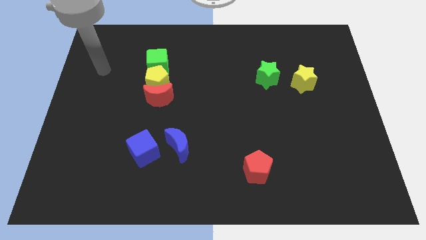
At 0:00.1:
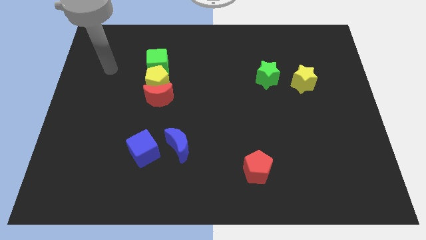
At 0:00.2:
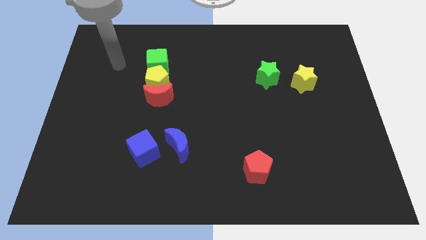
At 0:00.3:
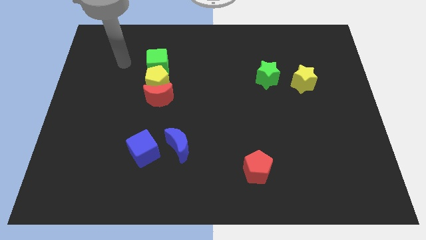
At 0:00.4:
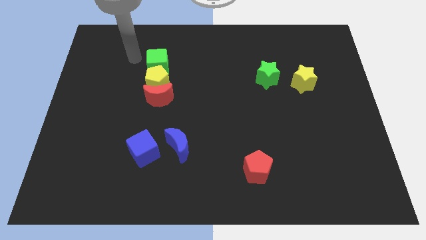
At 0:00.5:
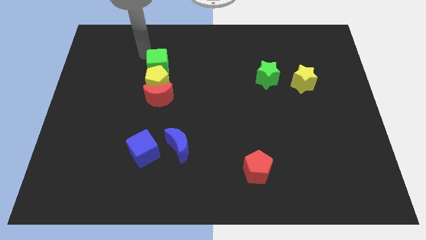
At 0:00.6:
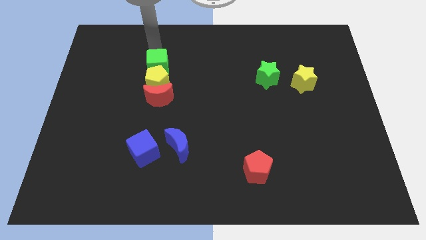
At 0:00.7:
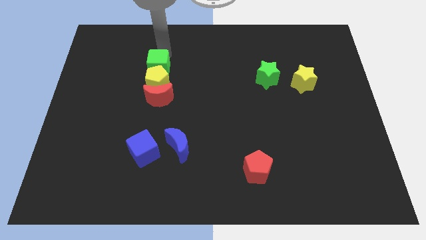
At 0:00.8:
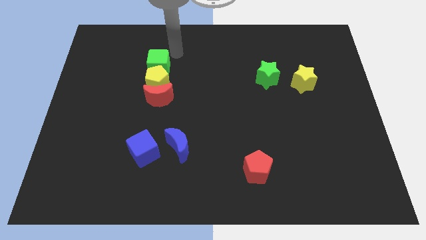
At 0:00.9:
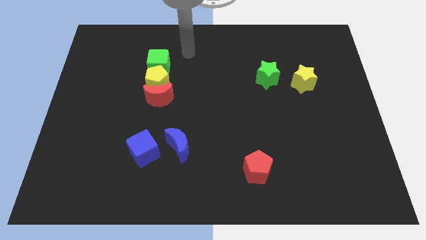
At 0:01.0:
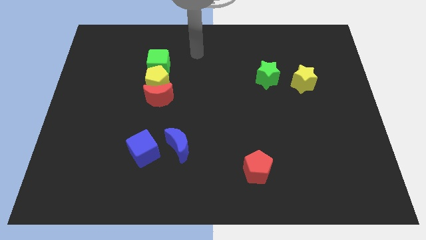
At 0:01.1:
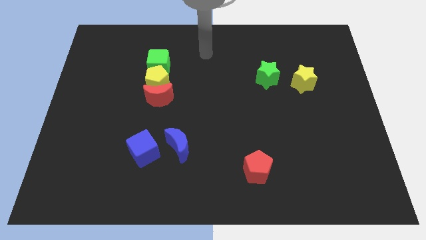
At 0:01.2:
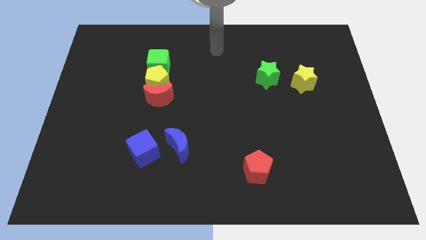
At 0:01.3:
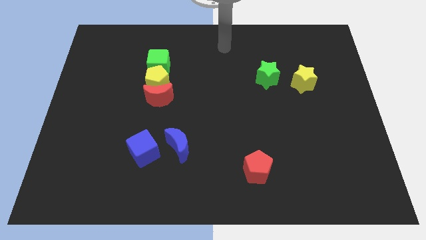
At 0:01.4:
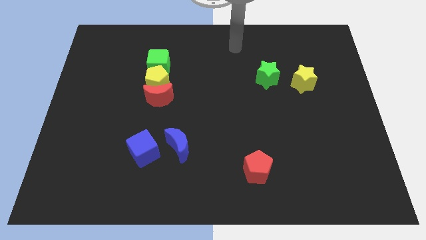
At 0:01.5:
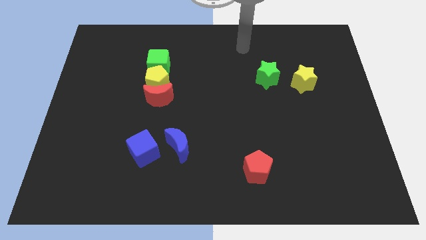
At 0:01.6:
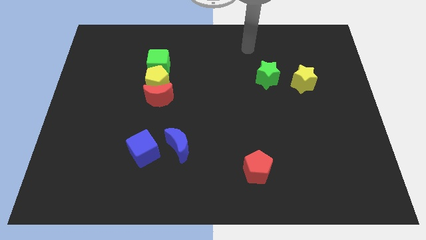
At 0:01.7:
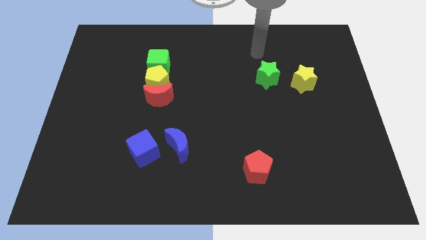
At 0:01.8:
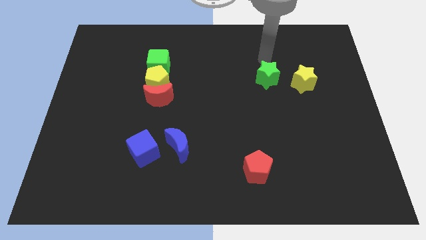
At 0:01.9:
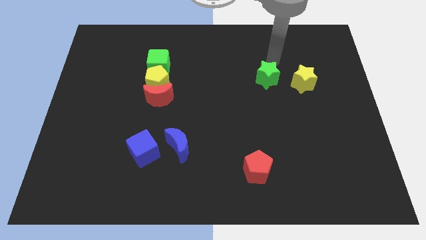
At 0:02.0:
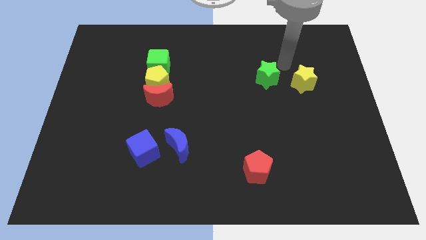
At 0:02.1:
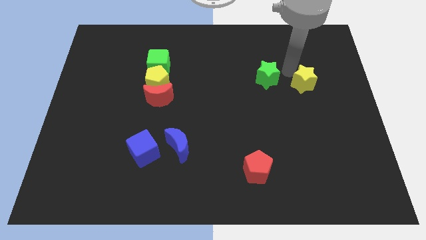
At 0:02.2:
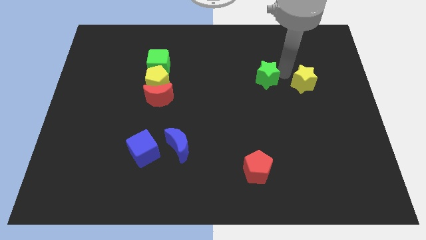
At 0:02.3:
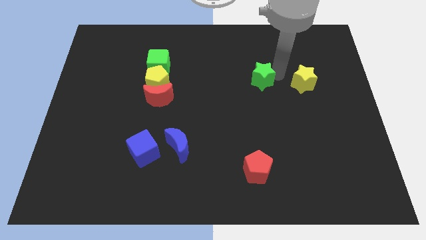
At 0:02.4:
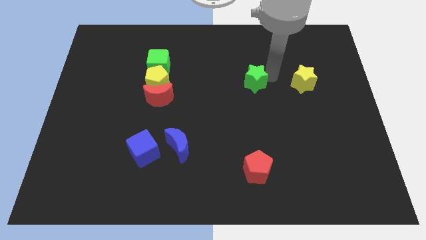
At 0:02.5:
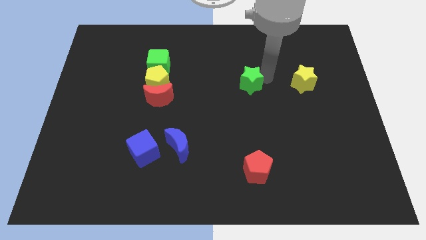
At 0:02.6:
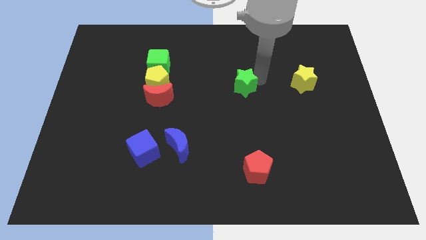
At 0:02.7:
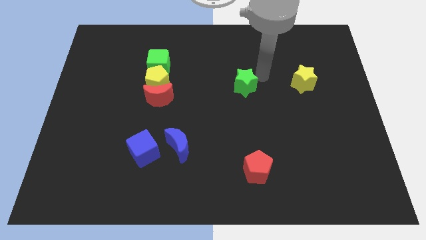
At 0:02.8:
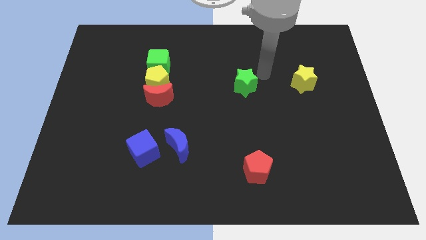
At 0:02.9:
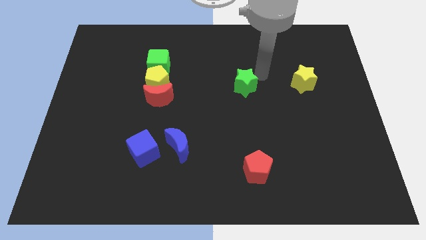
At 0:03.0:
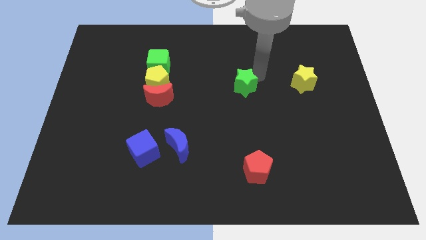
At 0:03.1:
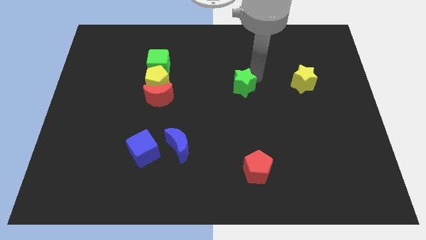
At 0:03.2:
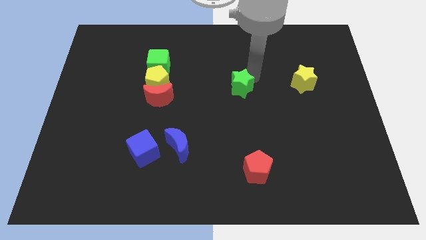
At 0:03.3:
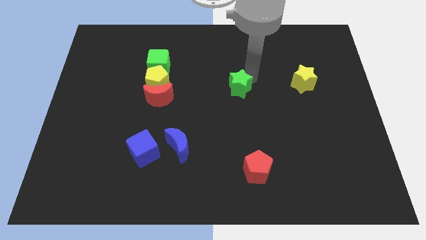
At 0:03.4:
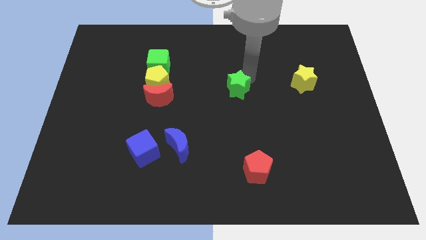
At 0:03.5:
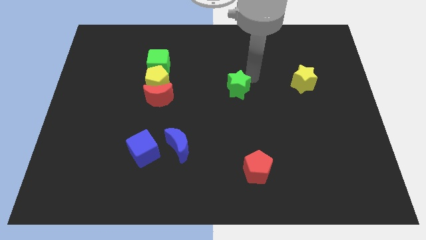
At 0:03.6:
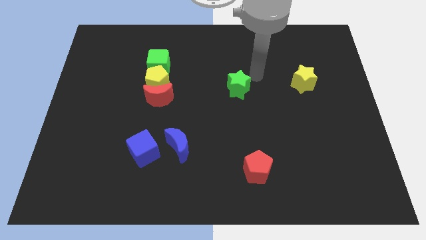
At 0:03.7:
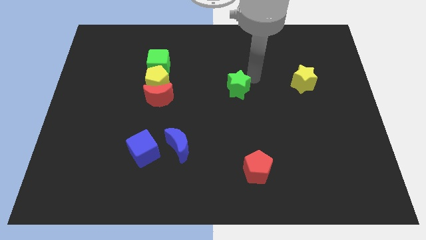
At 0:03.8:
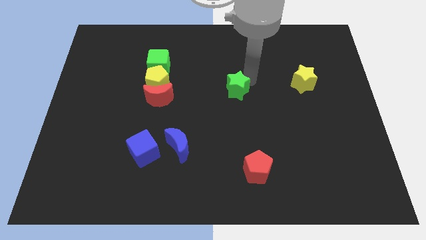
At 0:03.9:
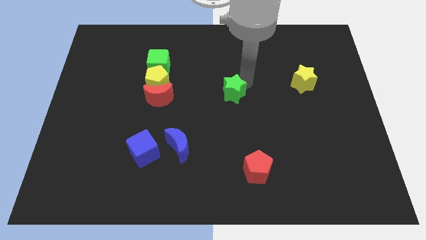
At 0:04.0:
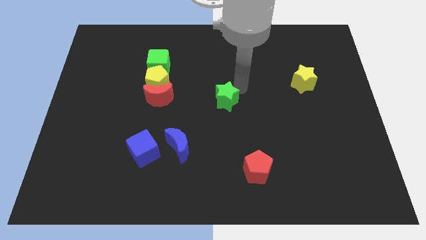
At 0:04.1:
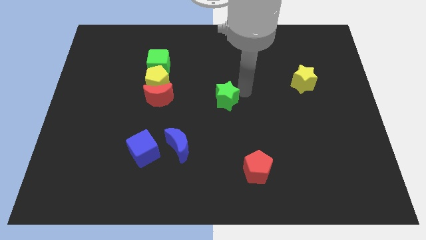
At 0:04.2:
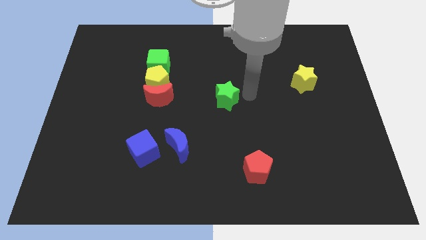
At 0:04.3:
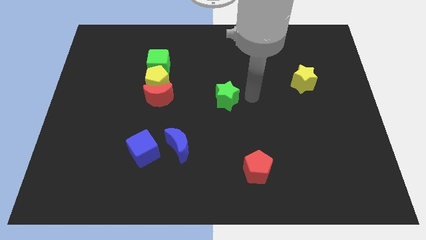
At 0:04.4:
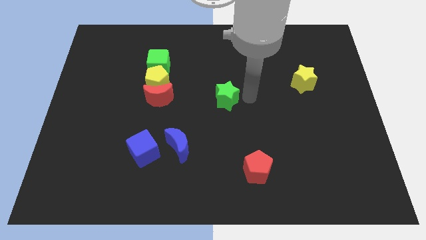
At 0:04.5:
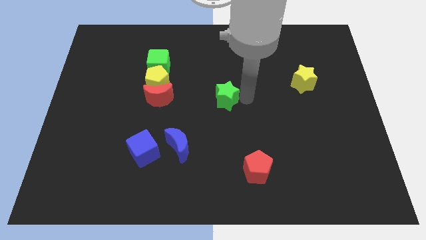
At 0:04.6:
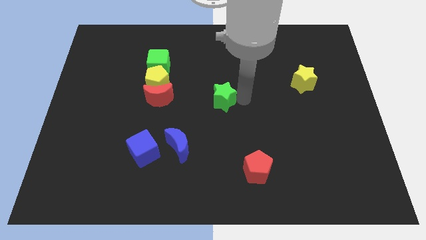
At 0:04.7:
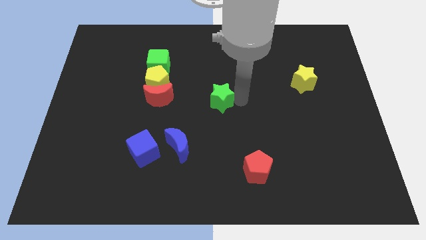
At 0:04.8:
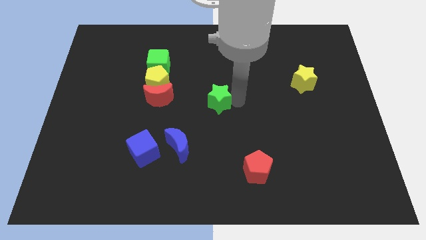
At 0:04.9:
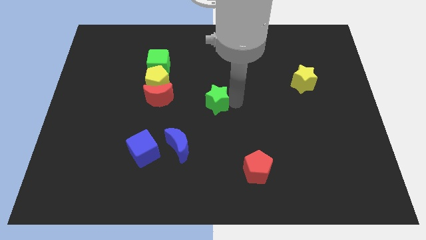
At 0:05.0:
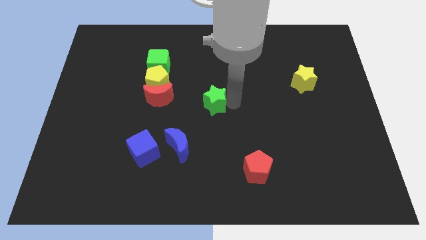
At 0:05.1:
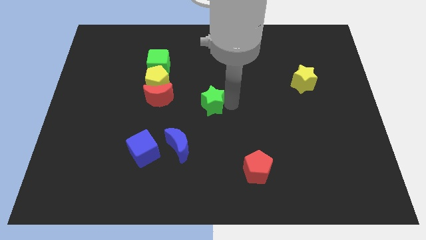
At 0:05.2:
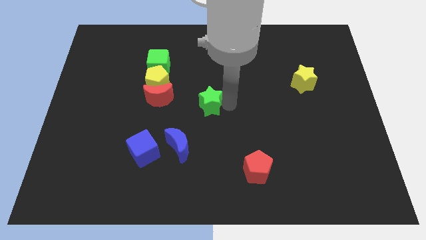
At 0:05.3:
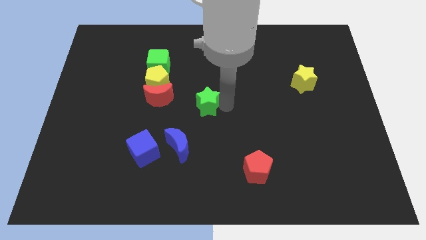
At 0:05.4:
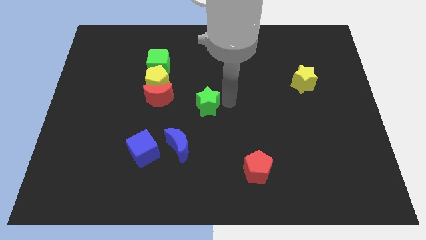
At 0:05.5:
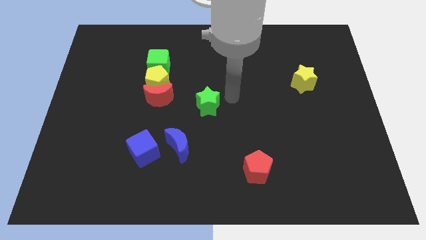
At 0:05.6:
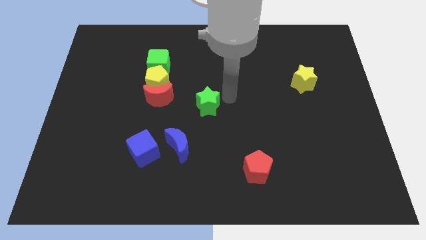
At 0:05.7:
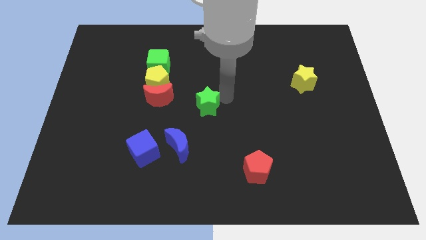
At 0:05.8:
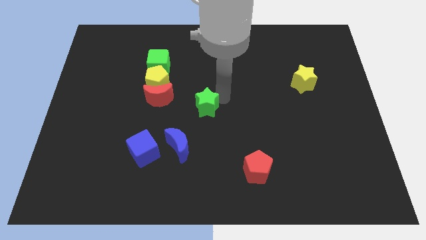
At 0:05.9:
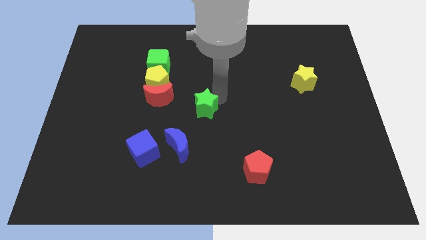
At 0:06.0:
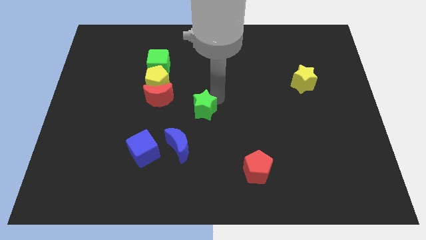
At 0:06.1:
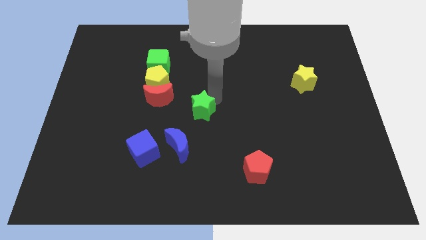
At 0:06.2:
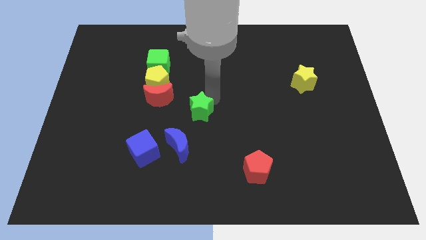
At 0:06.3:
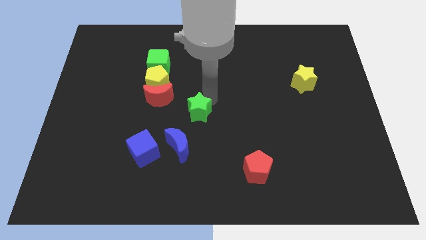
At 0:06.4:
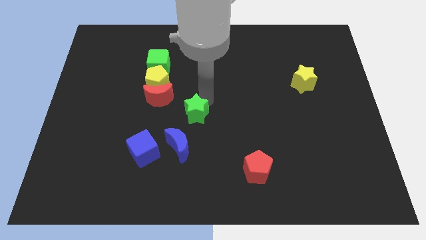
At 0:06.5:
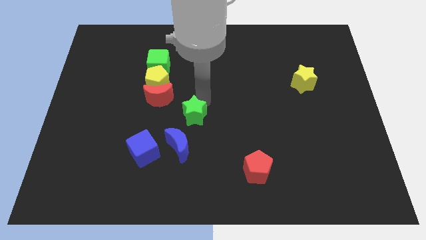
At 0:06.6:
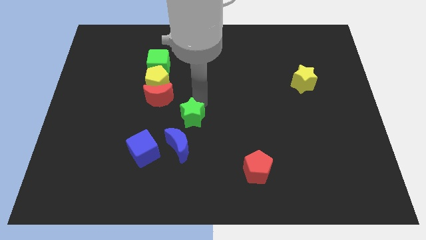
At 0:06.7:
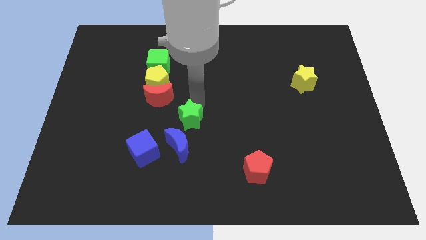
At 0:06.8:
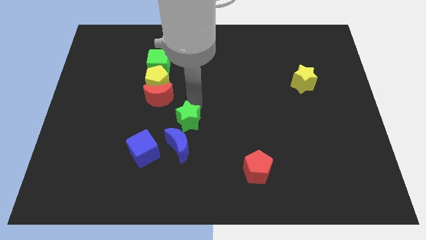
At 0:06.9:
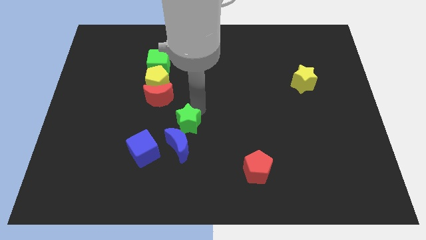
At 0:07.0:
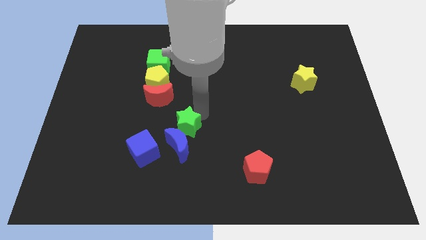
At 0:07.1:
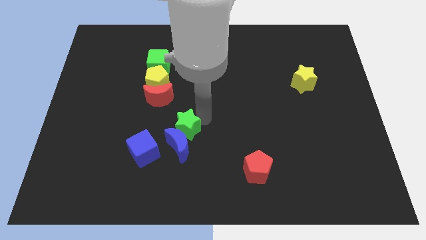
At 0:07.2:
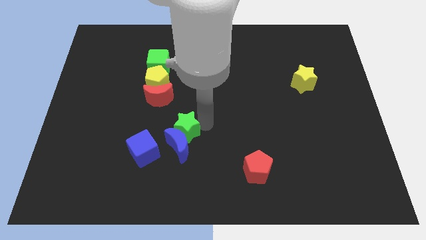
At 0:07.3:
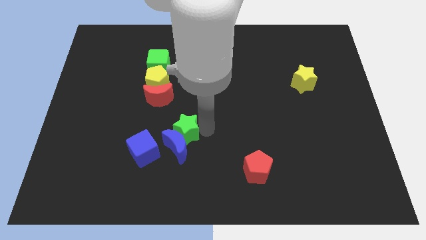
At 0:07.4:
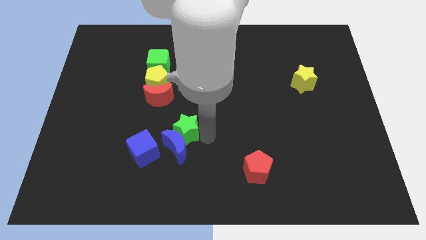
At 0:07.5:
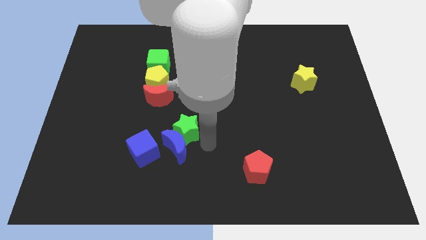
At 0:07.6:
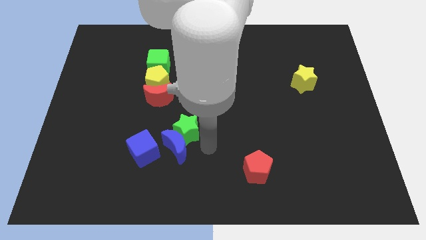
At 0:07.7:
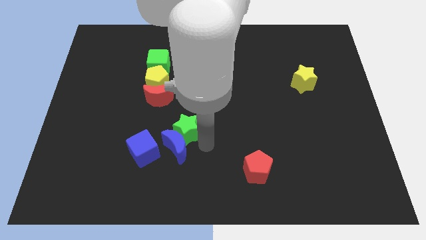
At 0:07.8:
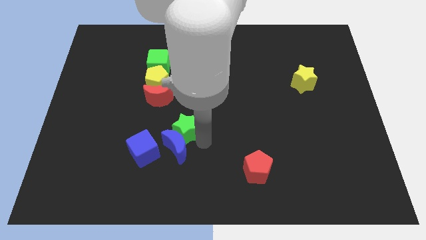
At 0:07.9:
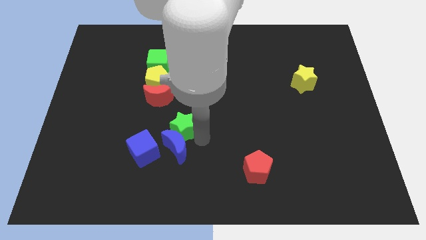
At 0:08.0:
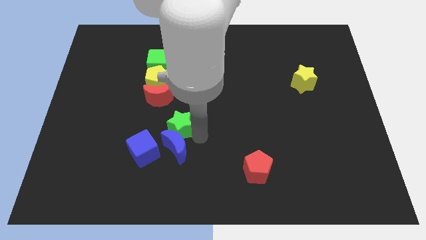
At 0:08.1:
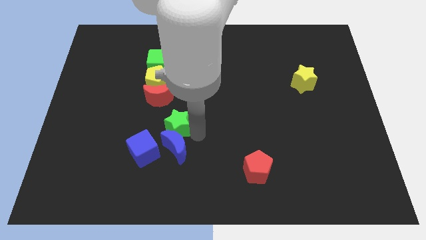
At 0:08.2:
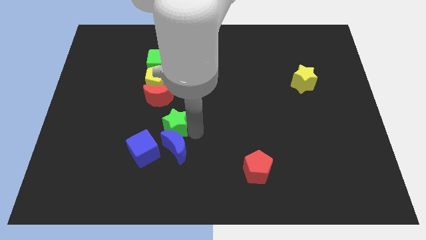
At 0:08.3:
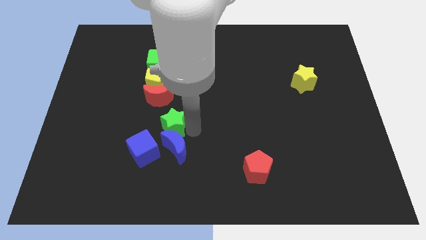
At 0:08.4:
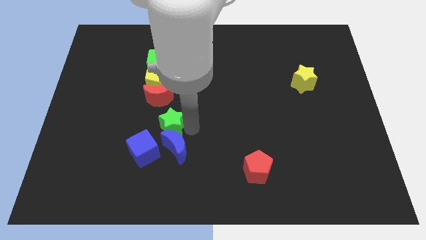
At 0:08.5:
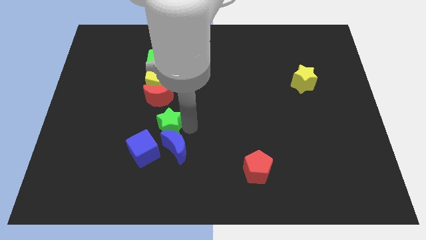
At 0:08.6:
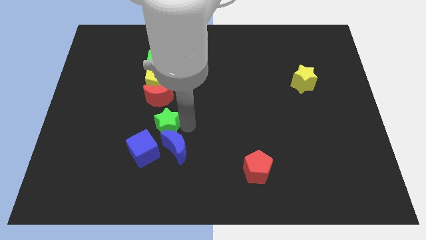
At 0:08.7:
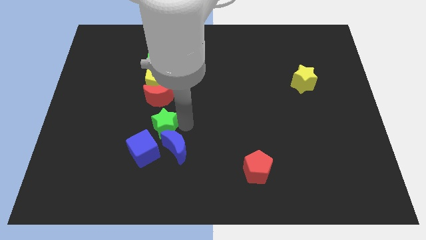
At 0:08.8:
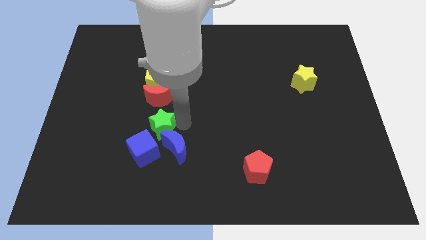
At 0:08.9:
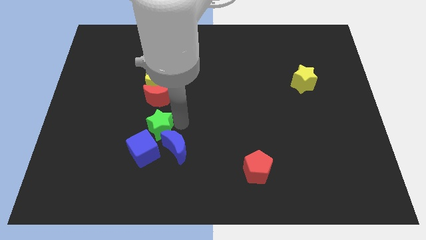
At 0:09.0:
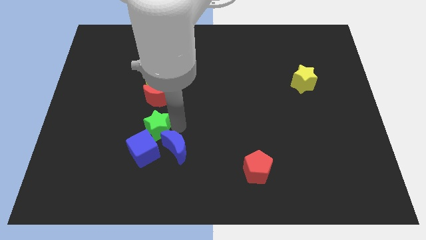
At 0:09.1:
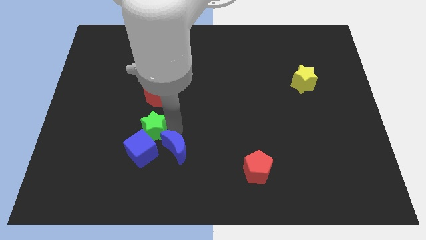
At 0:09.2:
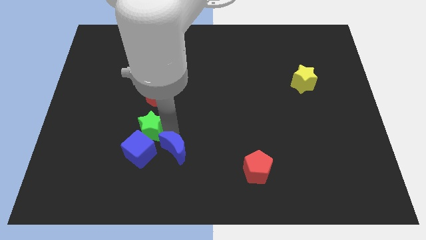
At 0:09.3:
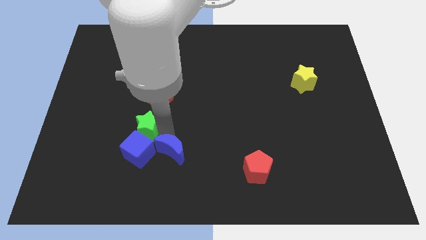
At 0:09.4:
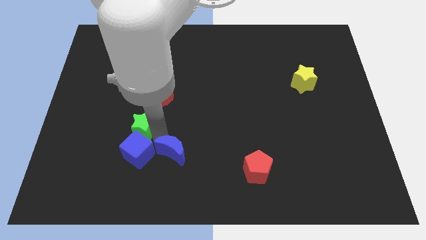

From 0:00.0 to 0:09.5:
push the green star to the bottom left side of the red moon
